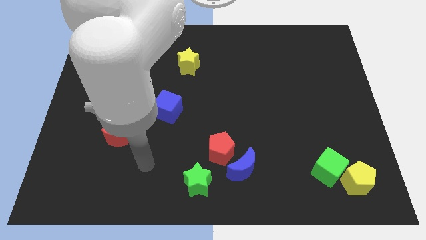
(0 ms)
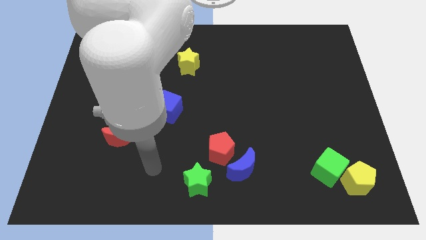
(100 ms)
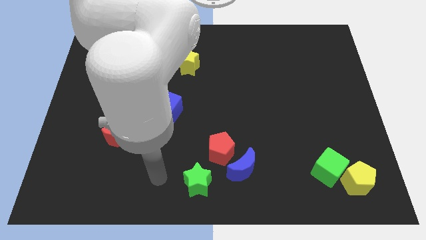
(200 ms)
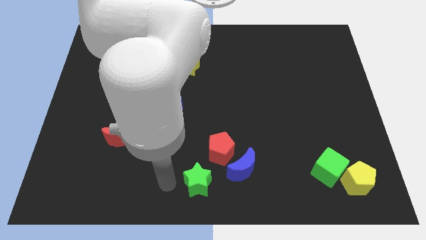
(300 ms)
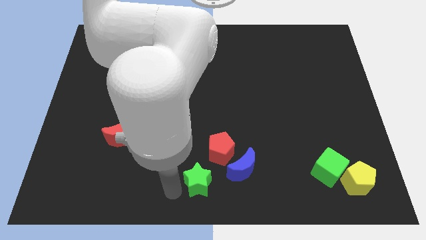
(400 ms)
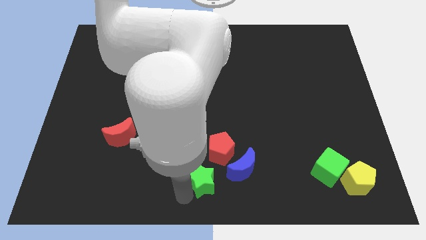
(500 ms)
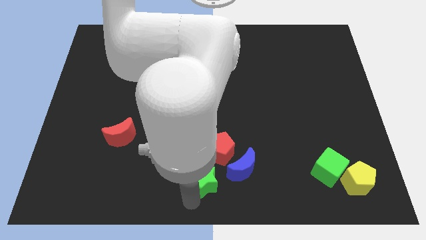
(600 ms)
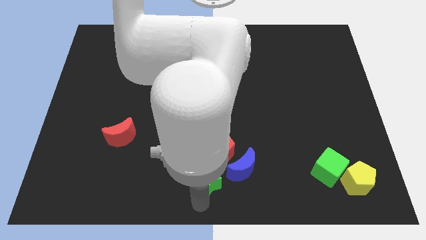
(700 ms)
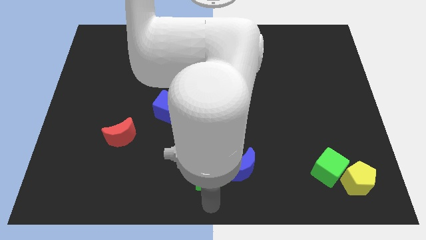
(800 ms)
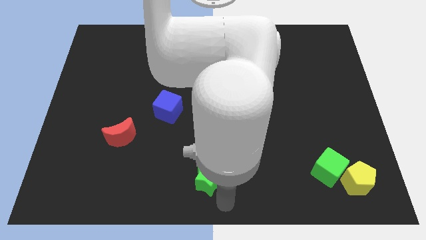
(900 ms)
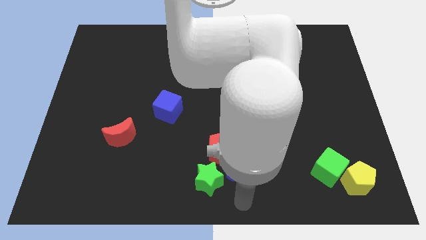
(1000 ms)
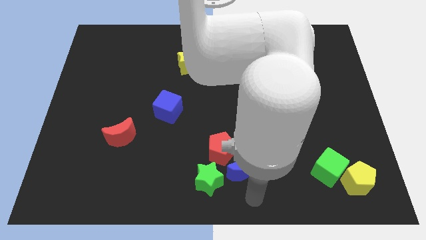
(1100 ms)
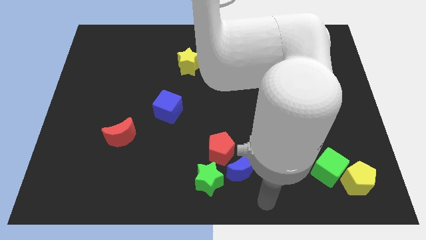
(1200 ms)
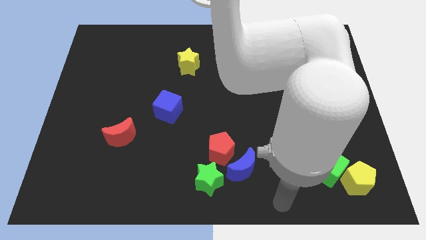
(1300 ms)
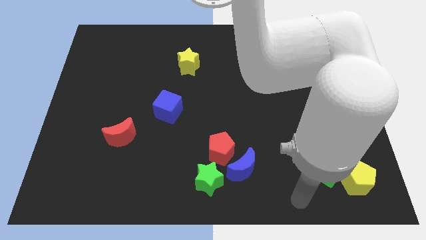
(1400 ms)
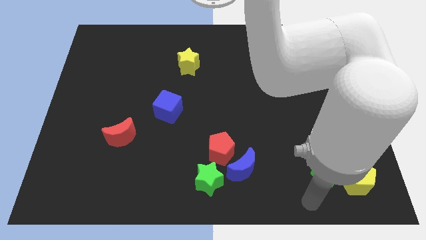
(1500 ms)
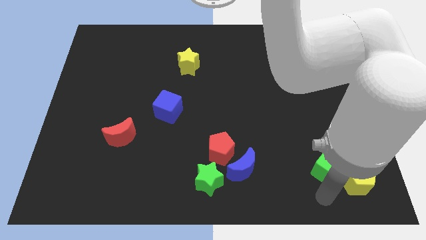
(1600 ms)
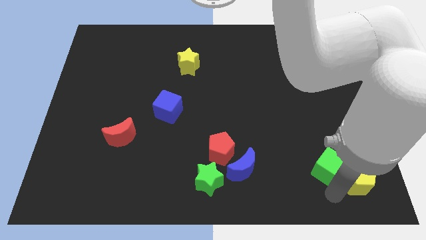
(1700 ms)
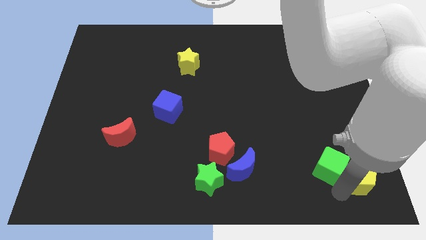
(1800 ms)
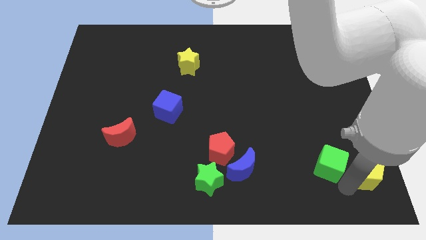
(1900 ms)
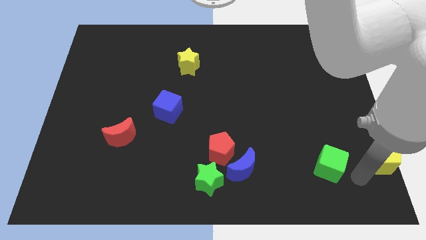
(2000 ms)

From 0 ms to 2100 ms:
separate the green cube from the yellow pentagon

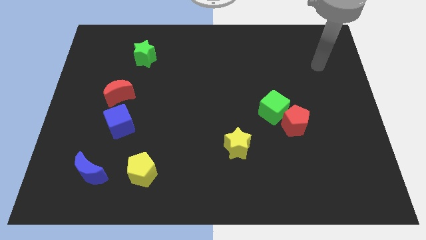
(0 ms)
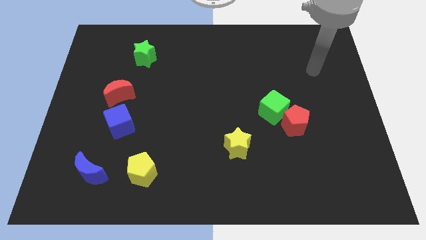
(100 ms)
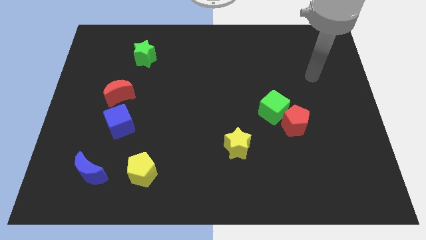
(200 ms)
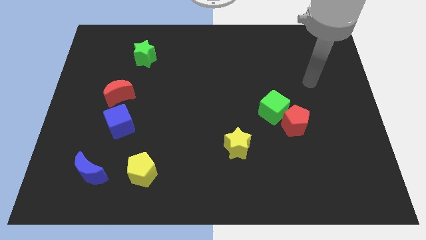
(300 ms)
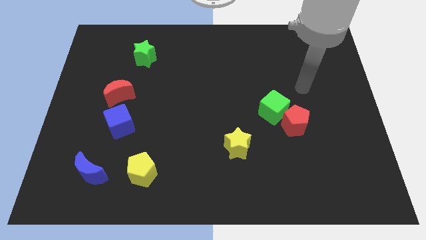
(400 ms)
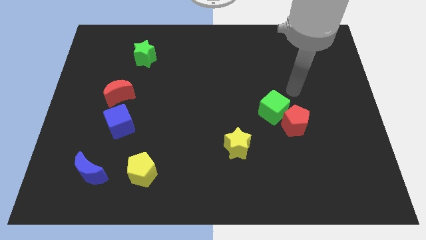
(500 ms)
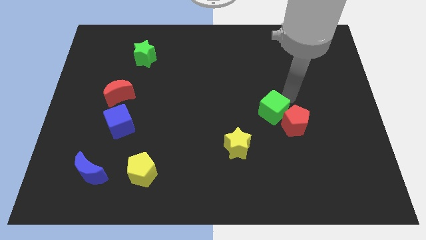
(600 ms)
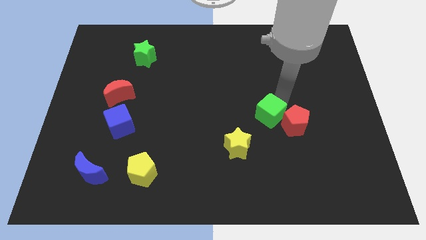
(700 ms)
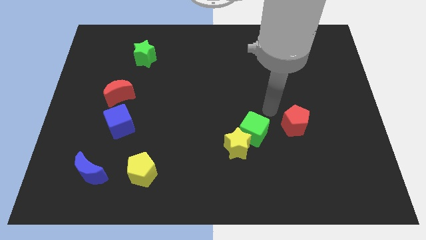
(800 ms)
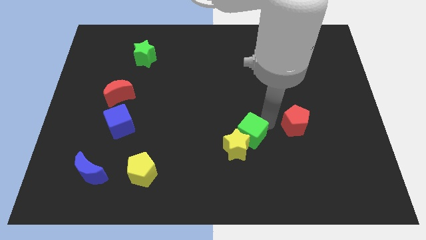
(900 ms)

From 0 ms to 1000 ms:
move the red pentagon away from the green cube

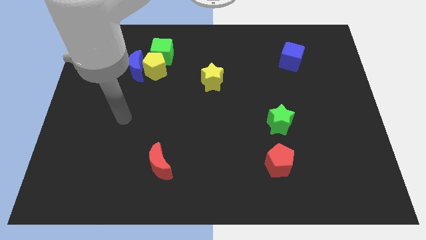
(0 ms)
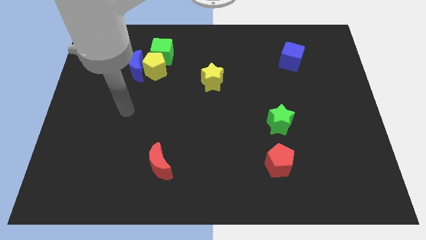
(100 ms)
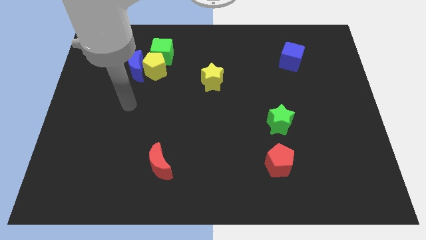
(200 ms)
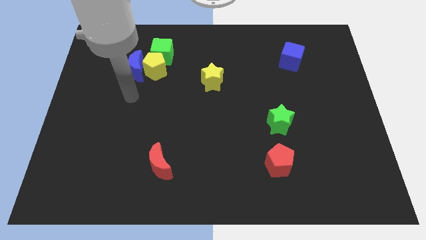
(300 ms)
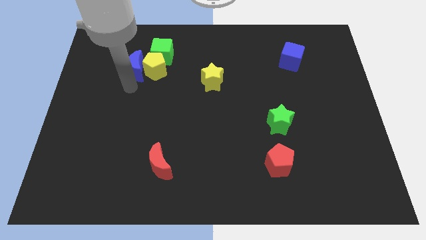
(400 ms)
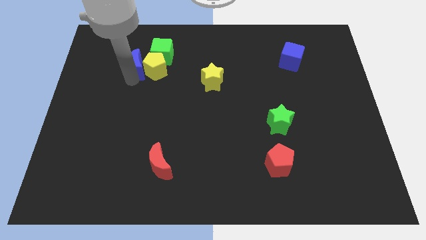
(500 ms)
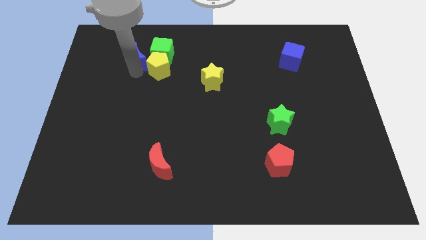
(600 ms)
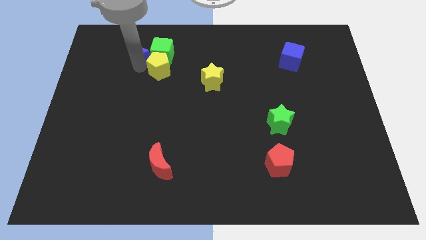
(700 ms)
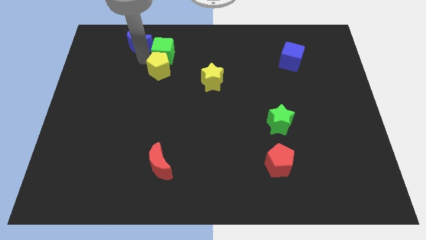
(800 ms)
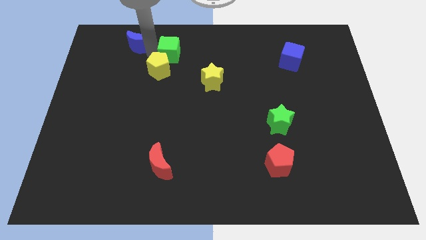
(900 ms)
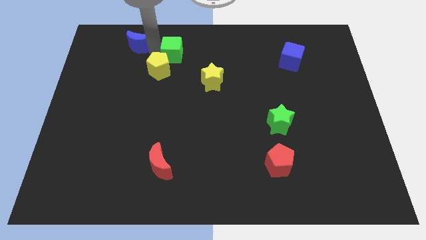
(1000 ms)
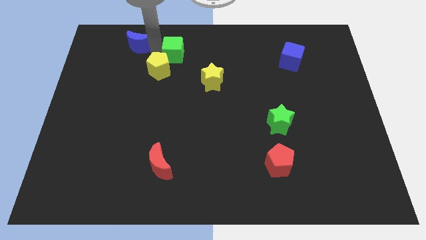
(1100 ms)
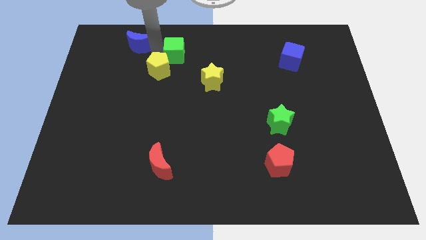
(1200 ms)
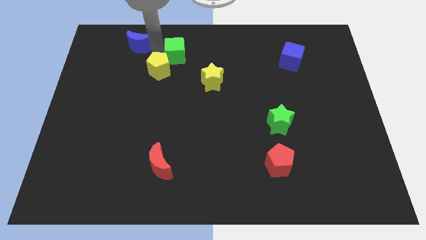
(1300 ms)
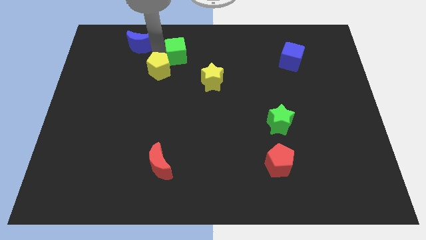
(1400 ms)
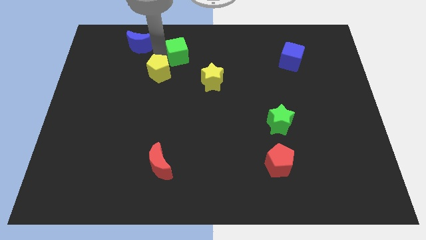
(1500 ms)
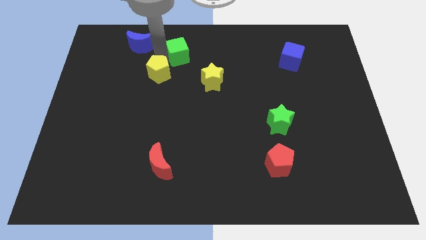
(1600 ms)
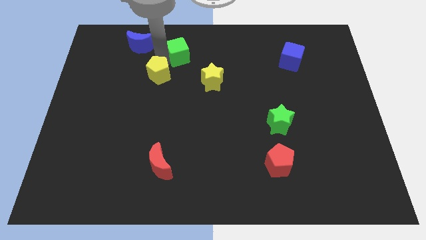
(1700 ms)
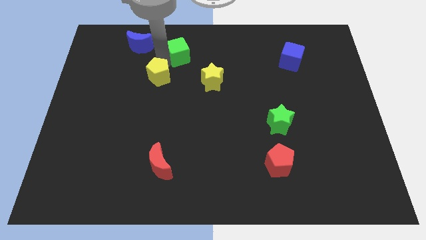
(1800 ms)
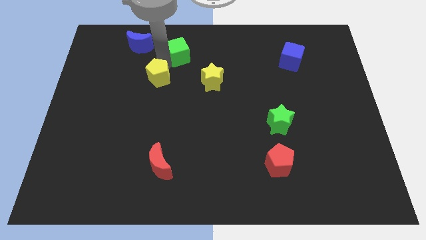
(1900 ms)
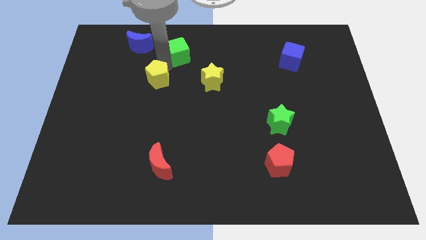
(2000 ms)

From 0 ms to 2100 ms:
separate the yellow pentagon from the blue moon and green cube

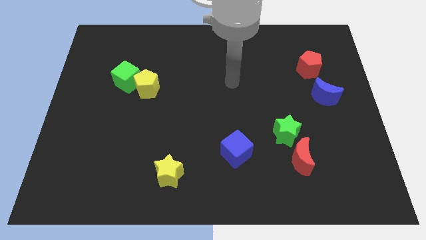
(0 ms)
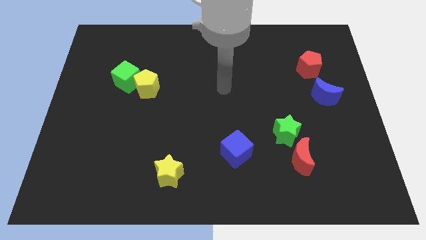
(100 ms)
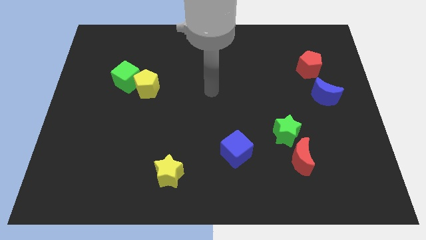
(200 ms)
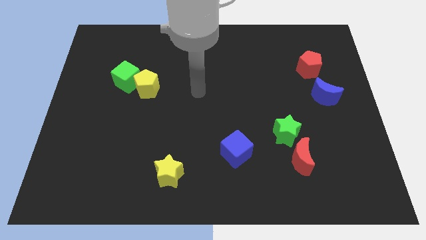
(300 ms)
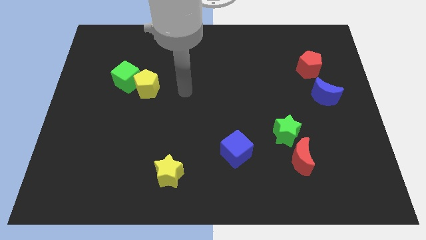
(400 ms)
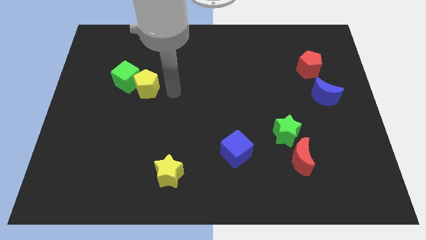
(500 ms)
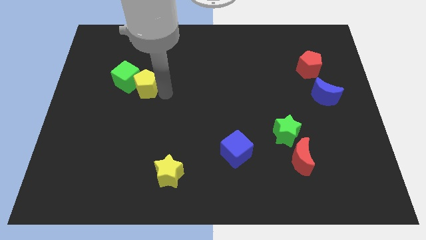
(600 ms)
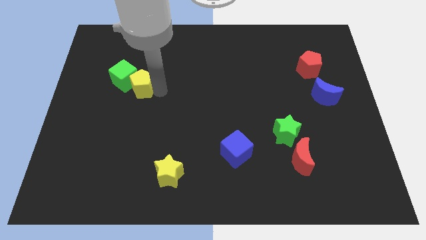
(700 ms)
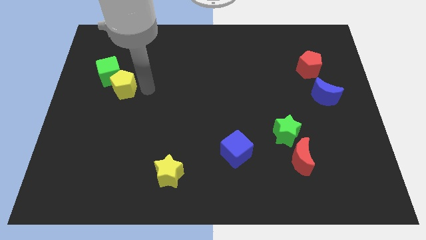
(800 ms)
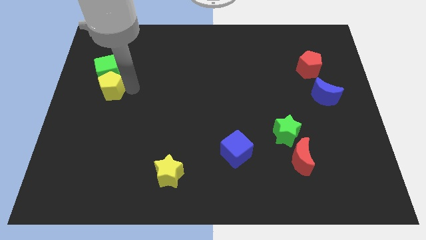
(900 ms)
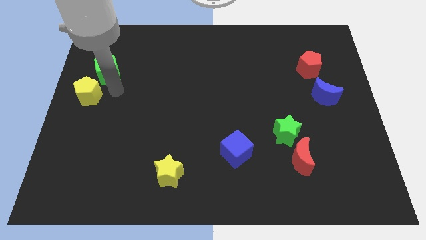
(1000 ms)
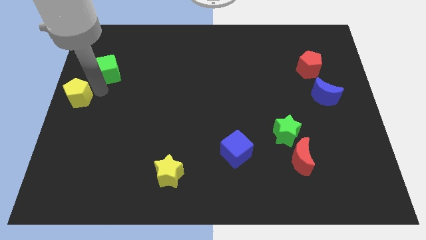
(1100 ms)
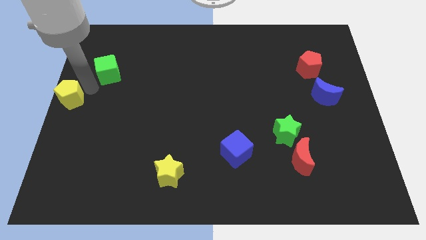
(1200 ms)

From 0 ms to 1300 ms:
pull the green cube apart from the yellow pentagon

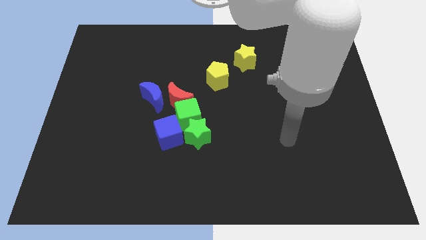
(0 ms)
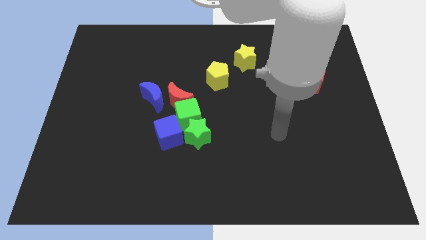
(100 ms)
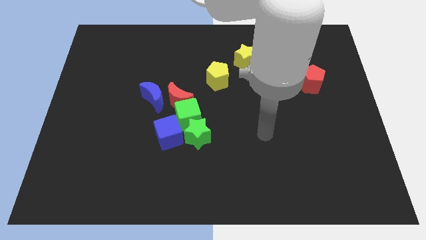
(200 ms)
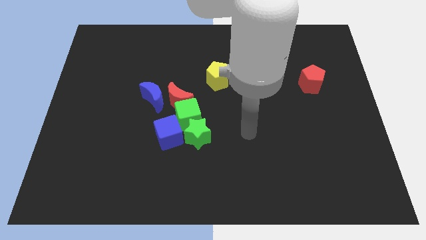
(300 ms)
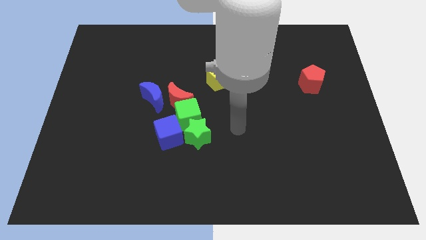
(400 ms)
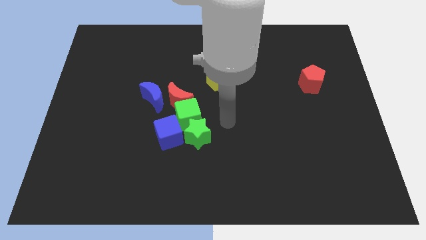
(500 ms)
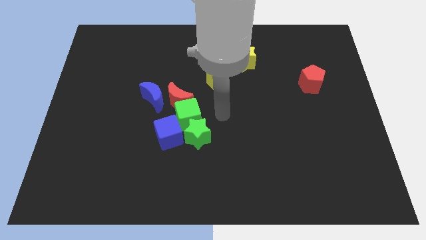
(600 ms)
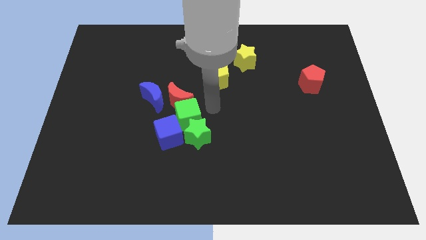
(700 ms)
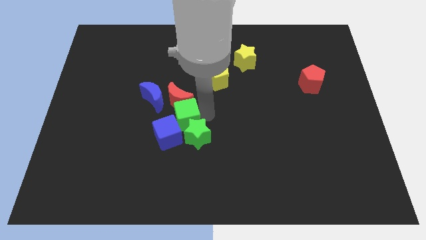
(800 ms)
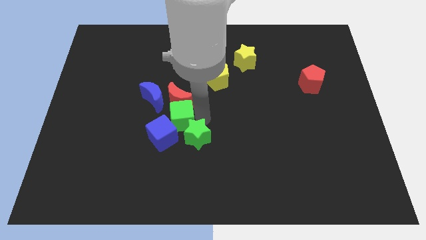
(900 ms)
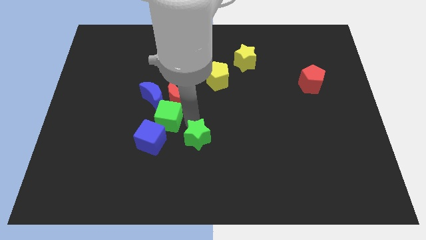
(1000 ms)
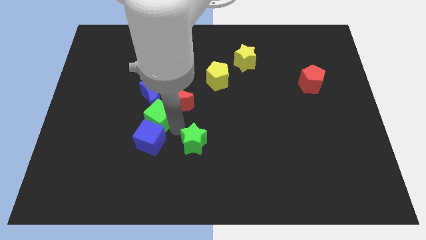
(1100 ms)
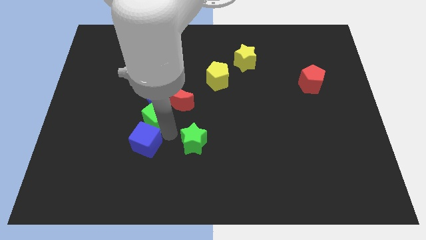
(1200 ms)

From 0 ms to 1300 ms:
separate the green star from the green cube and blue cube

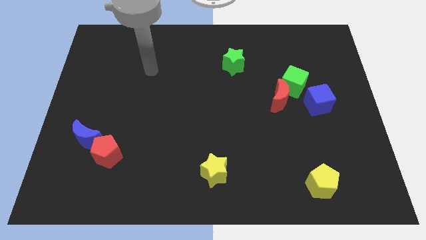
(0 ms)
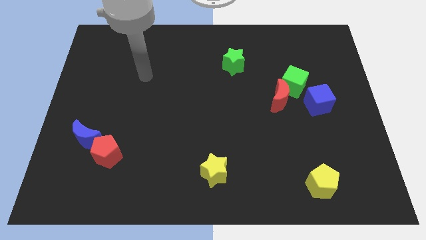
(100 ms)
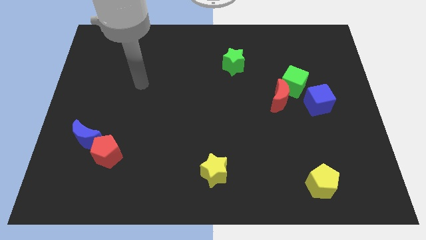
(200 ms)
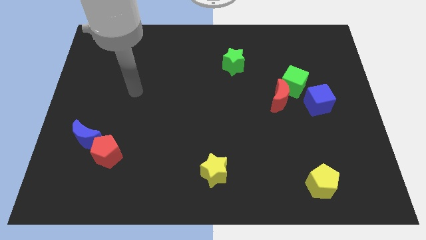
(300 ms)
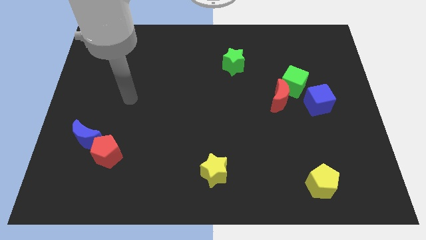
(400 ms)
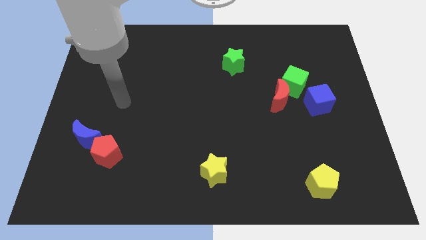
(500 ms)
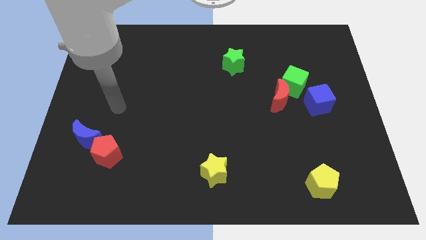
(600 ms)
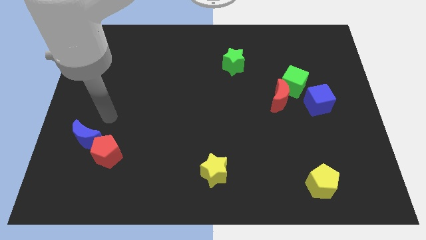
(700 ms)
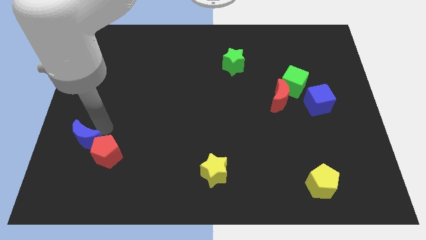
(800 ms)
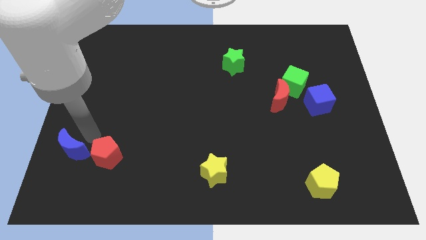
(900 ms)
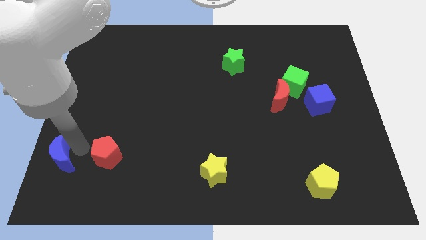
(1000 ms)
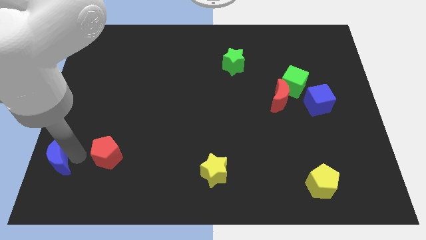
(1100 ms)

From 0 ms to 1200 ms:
separate the red pentagon from the blue moon

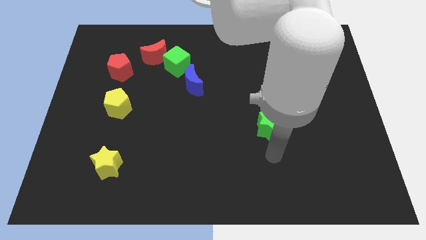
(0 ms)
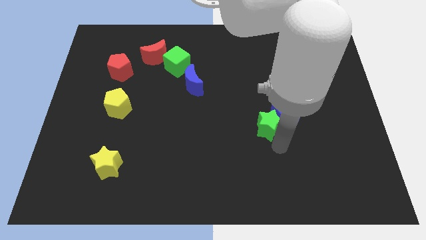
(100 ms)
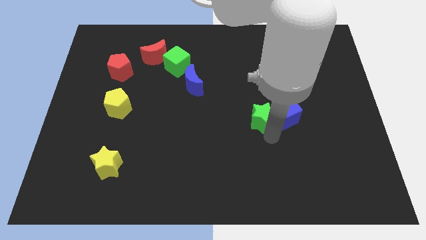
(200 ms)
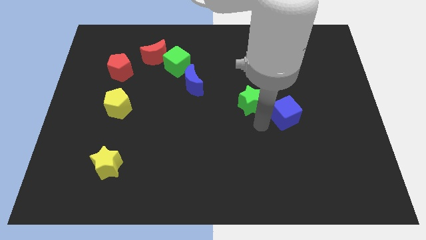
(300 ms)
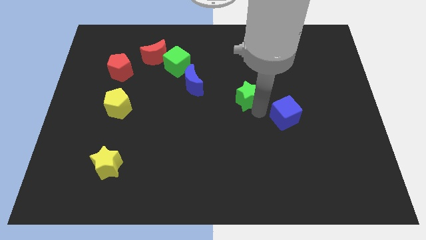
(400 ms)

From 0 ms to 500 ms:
move the blue cube away from the green star

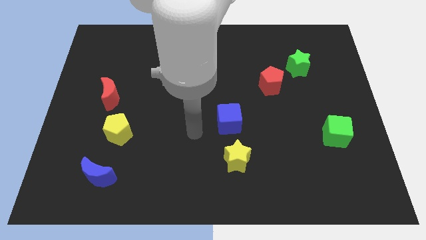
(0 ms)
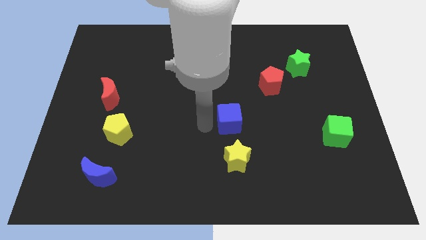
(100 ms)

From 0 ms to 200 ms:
move the red pentagon away from the green star
